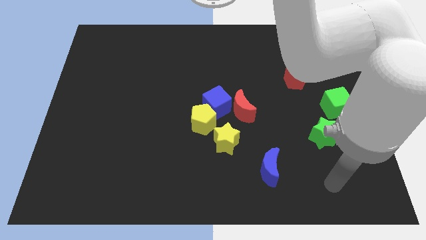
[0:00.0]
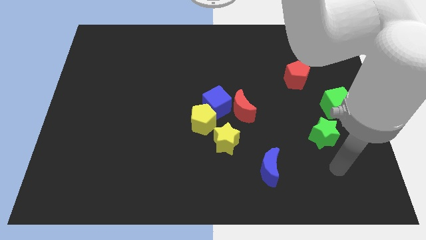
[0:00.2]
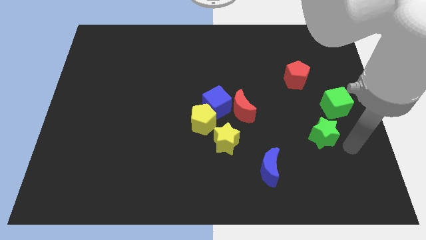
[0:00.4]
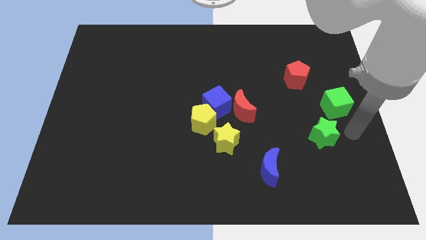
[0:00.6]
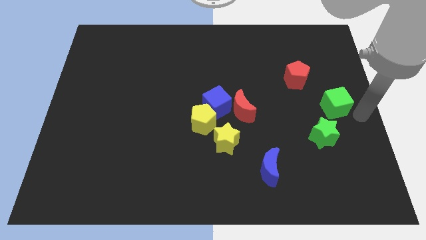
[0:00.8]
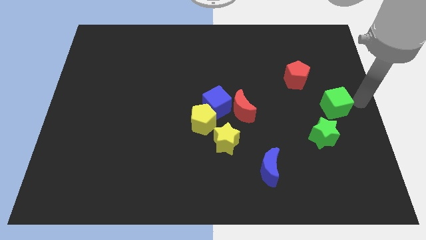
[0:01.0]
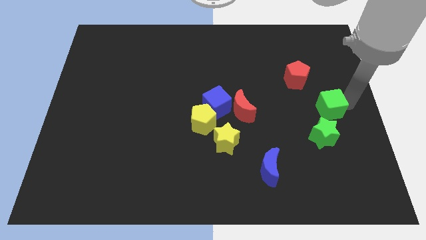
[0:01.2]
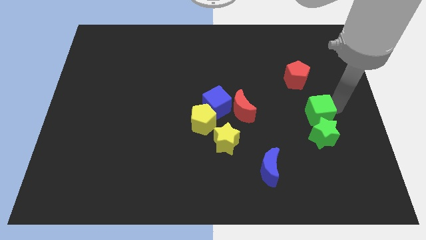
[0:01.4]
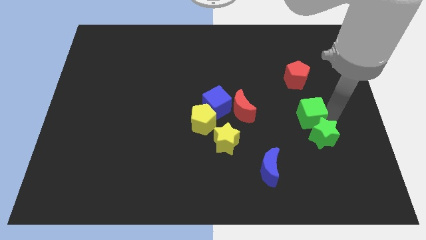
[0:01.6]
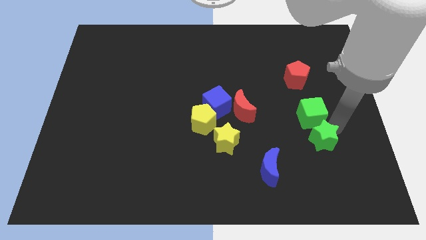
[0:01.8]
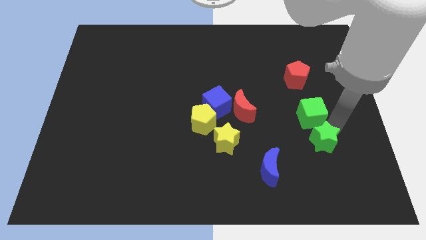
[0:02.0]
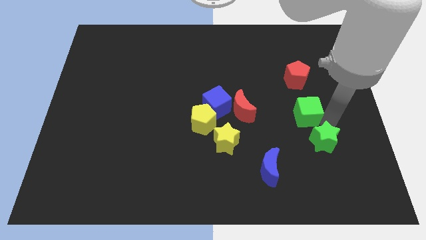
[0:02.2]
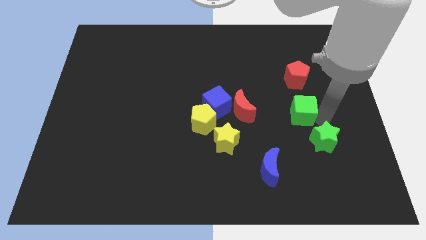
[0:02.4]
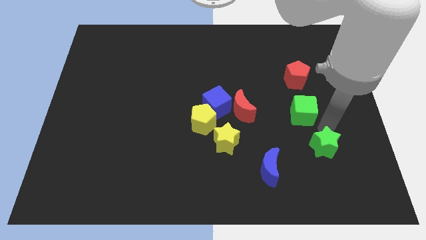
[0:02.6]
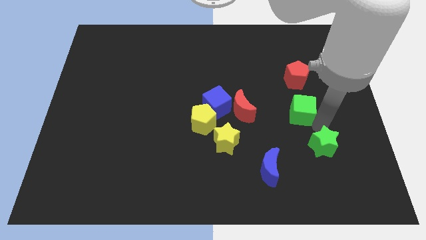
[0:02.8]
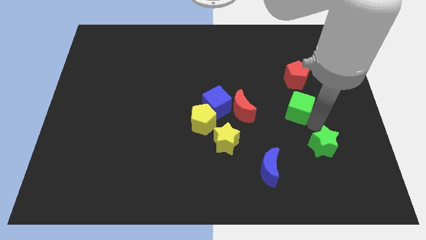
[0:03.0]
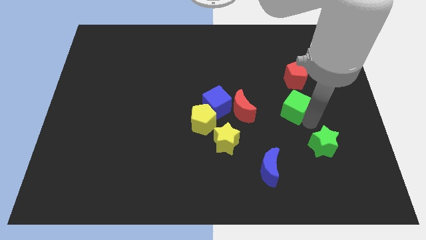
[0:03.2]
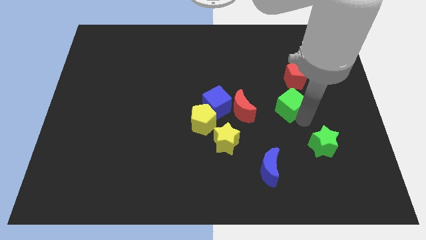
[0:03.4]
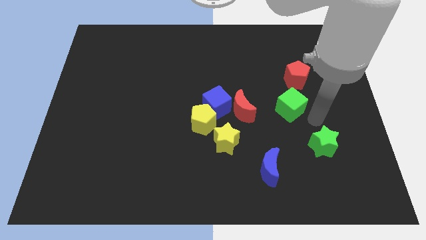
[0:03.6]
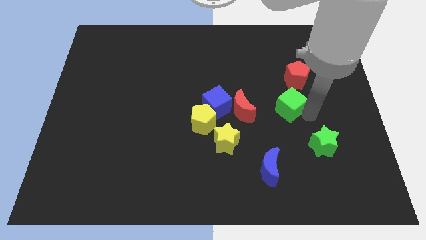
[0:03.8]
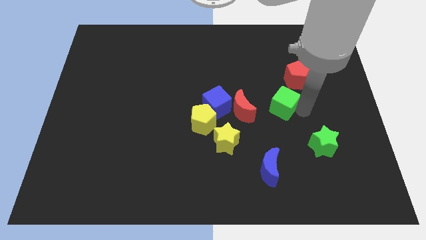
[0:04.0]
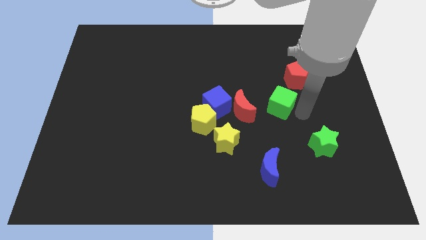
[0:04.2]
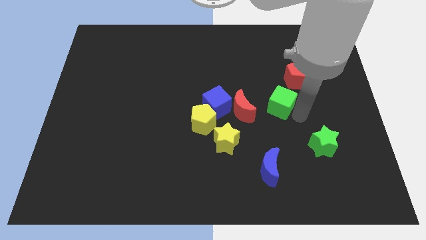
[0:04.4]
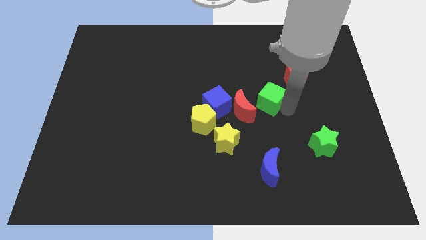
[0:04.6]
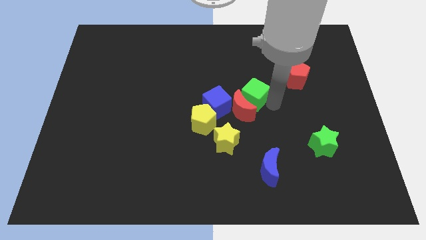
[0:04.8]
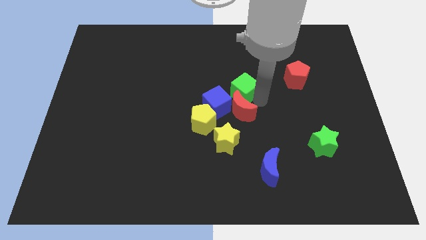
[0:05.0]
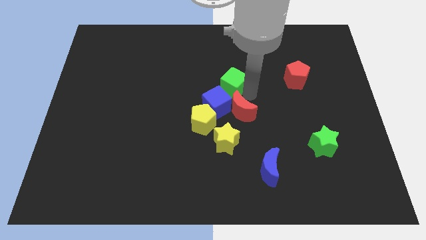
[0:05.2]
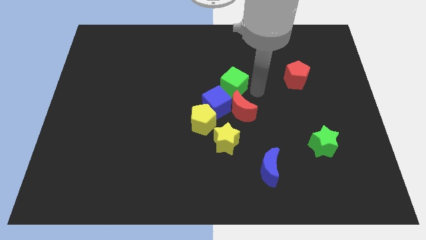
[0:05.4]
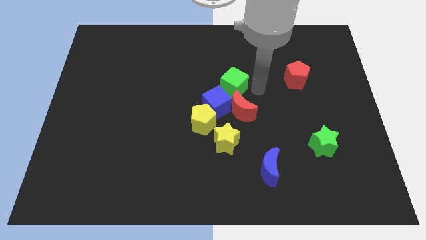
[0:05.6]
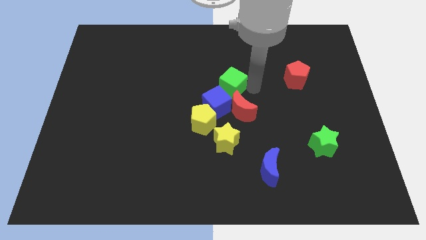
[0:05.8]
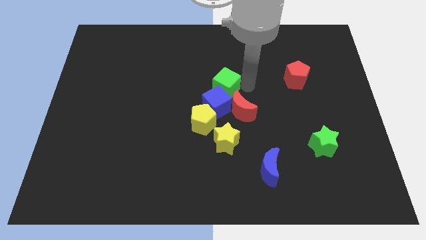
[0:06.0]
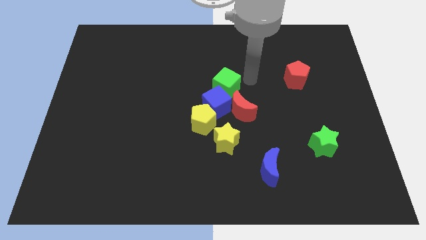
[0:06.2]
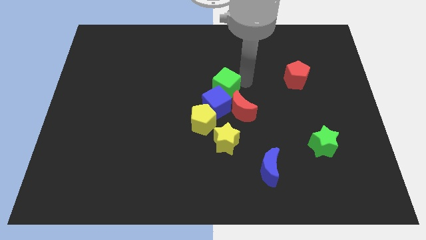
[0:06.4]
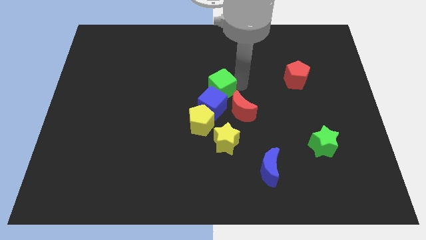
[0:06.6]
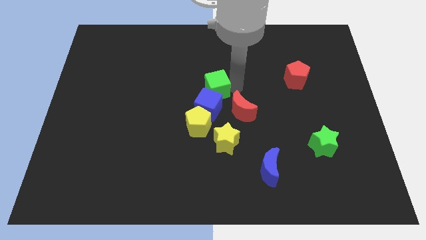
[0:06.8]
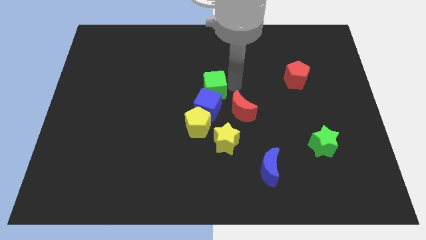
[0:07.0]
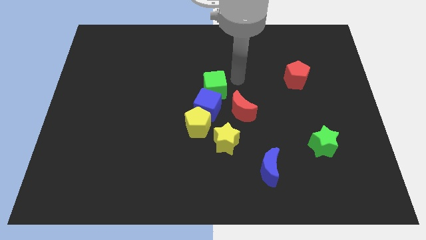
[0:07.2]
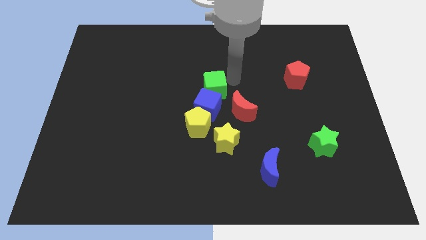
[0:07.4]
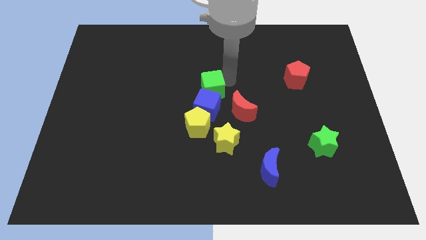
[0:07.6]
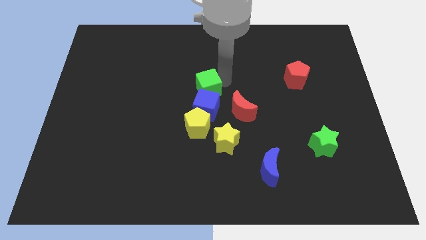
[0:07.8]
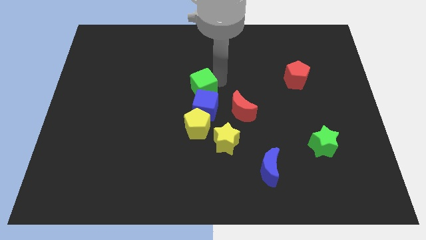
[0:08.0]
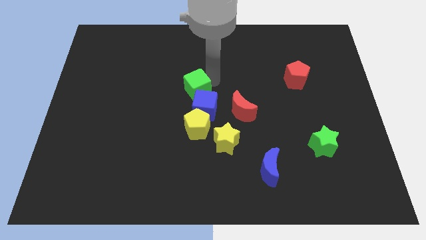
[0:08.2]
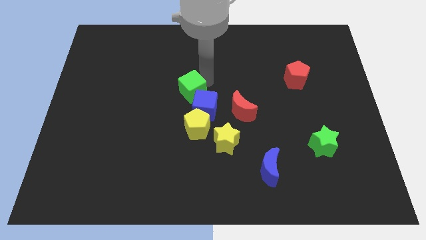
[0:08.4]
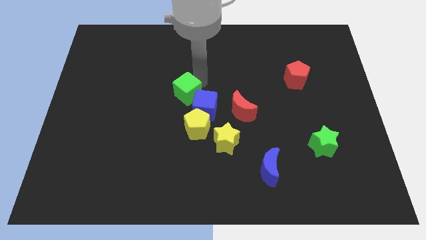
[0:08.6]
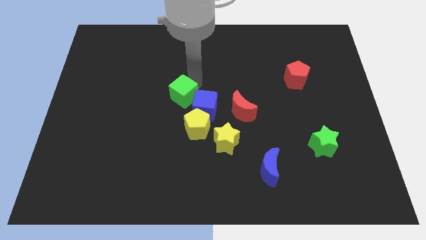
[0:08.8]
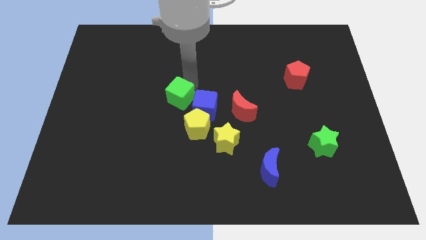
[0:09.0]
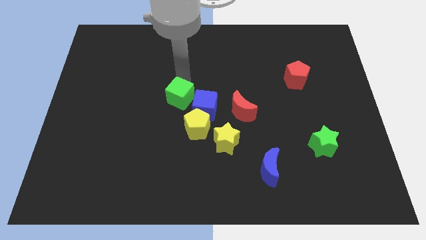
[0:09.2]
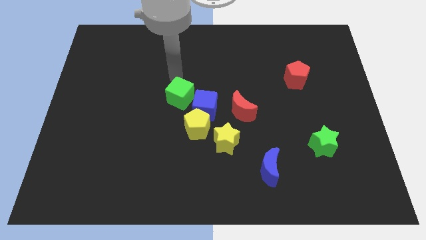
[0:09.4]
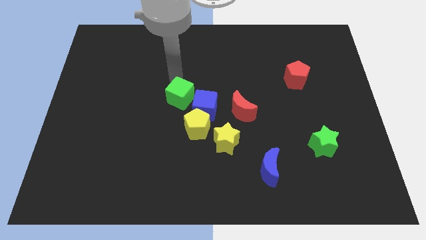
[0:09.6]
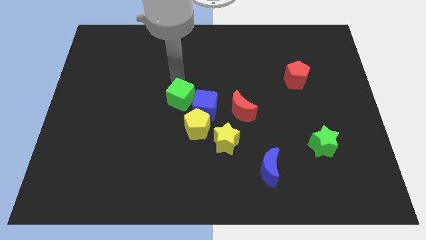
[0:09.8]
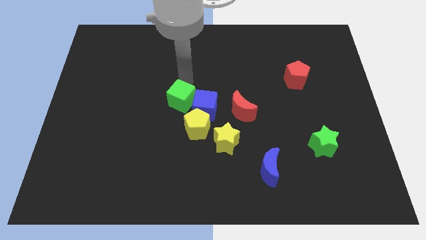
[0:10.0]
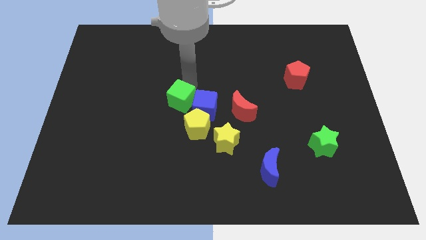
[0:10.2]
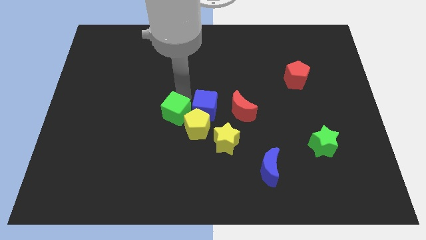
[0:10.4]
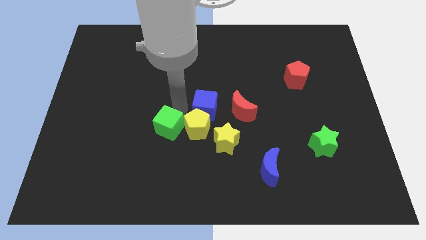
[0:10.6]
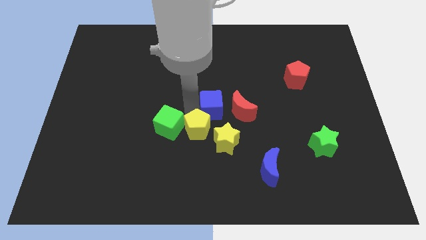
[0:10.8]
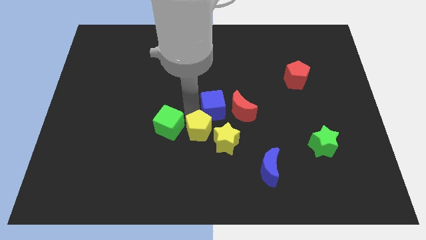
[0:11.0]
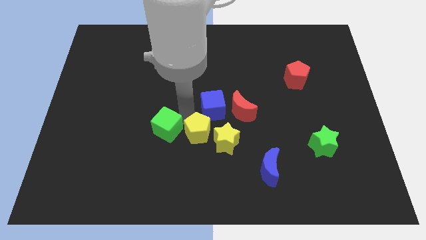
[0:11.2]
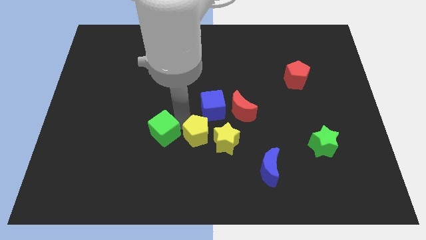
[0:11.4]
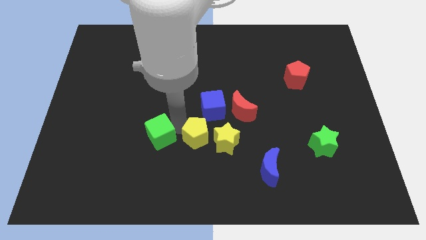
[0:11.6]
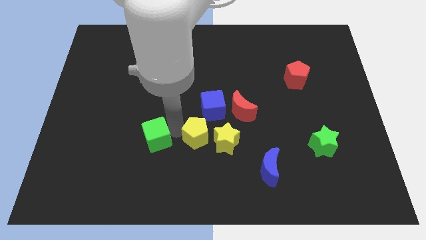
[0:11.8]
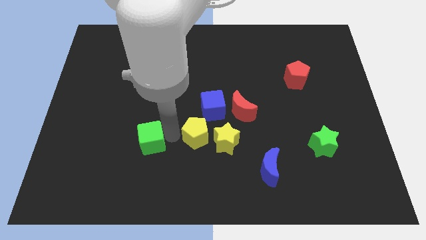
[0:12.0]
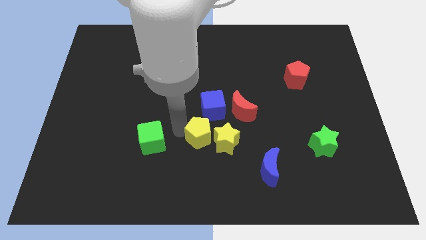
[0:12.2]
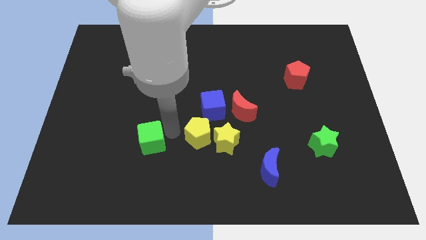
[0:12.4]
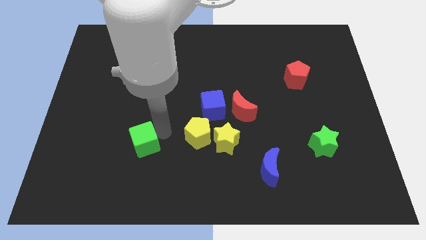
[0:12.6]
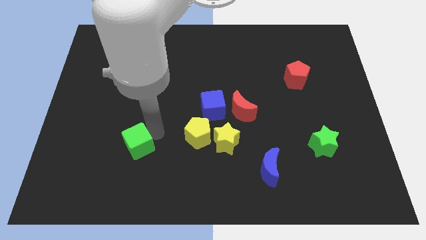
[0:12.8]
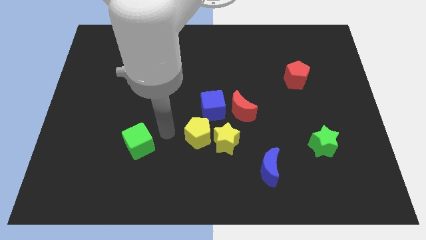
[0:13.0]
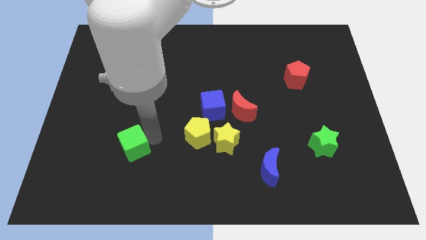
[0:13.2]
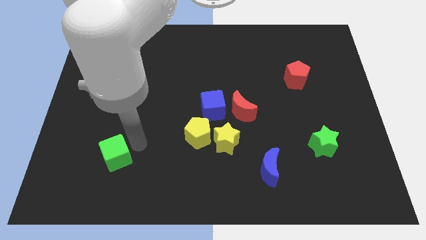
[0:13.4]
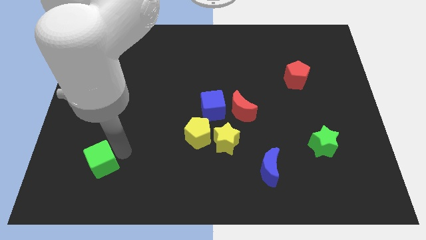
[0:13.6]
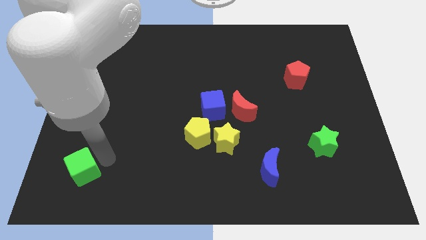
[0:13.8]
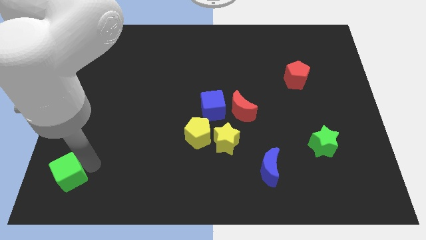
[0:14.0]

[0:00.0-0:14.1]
slide the green cube to the bottom left corner
